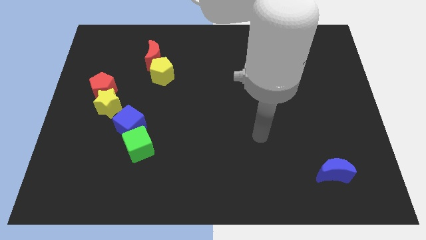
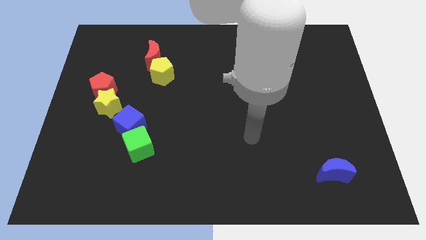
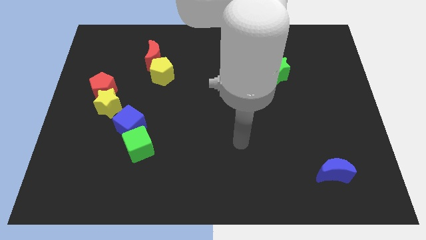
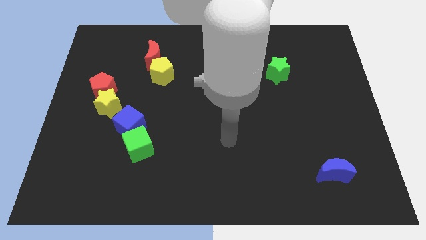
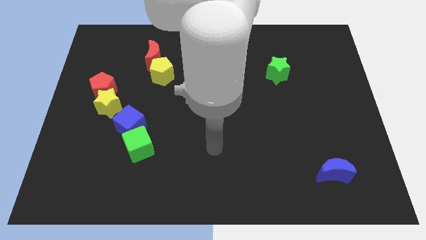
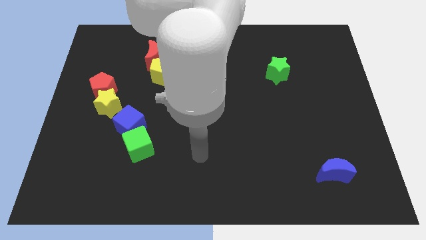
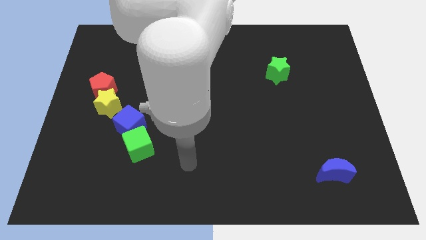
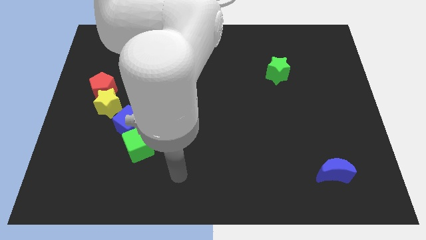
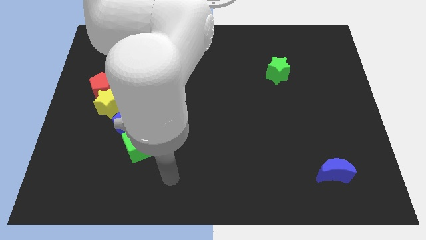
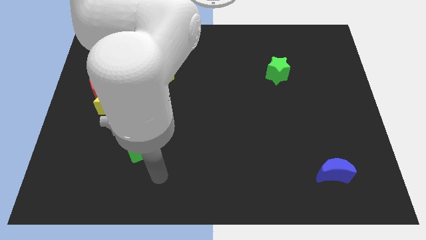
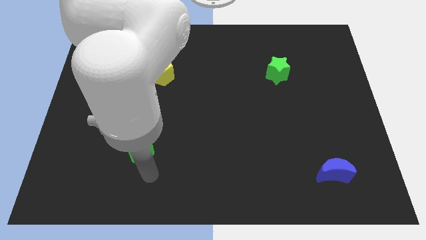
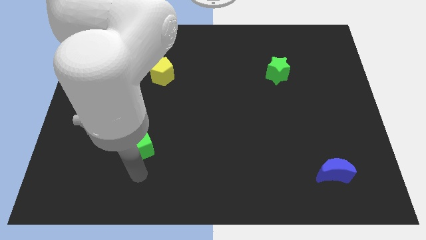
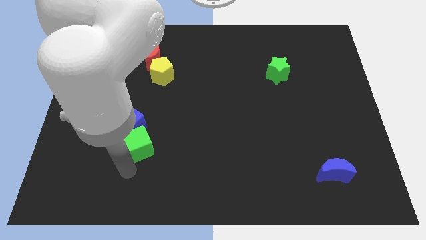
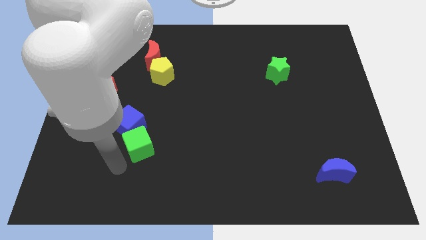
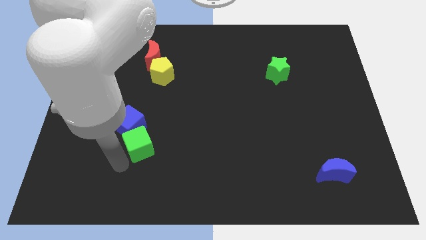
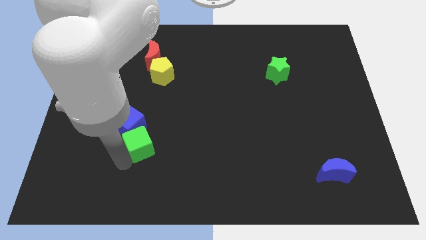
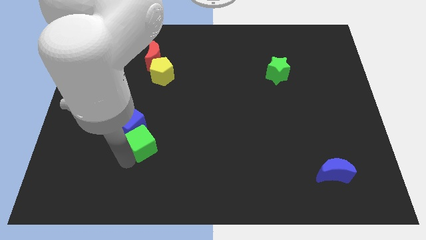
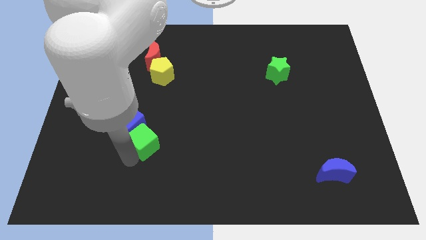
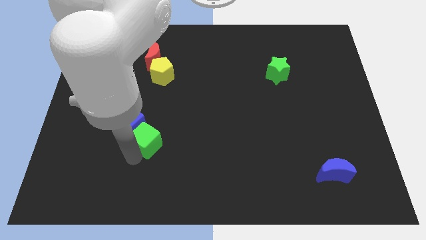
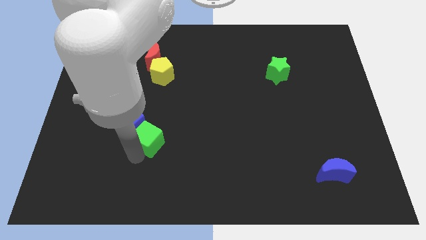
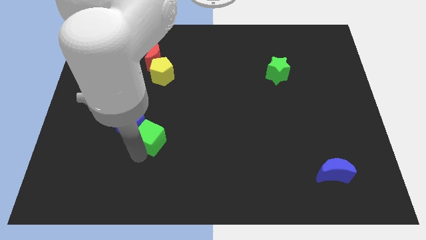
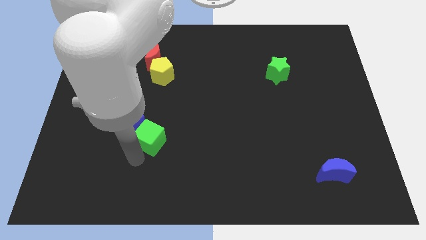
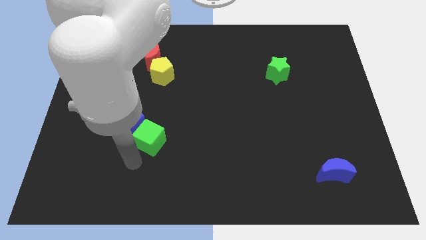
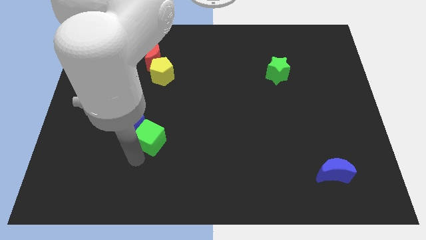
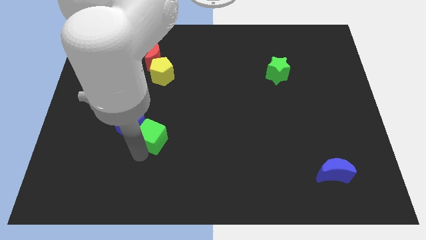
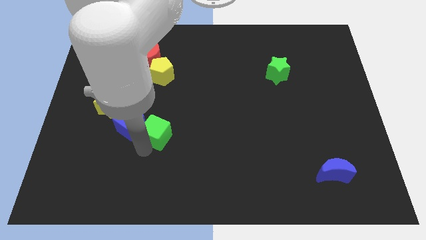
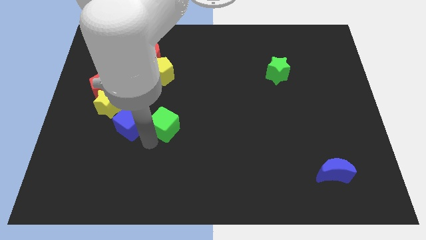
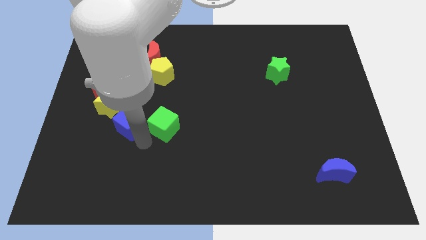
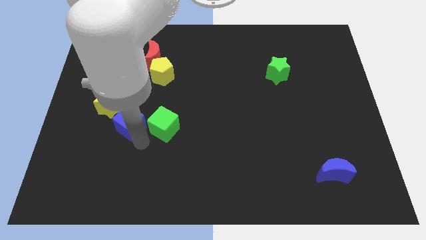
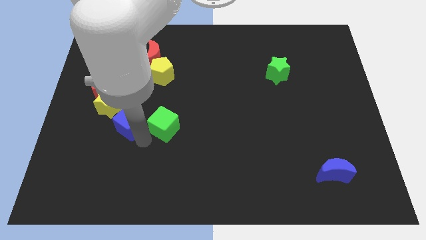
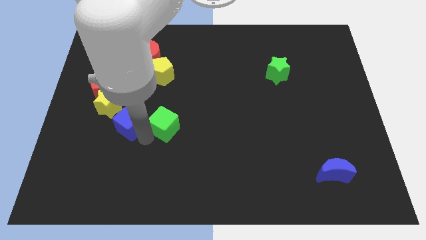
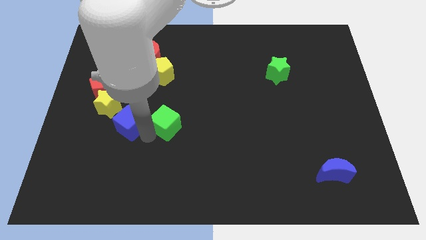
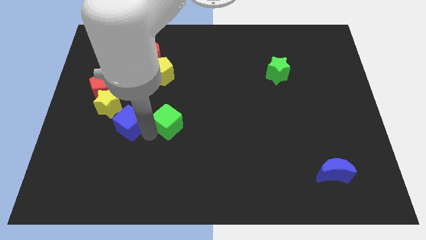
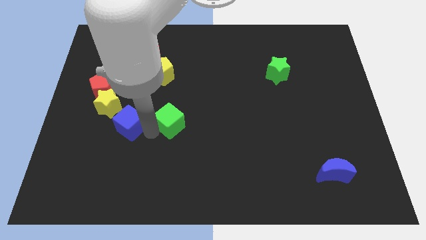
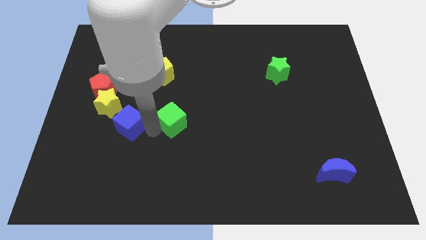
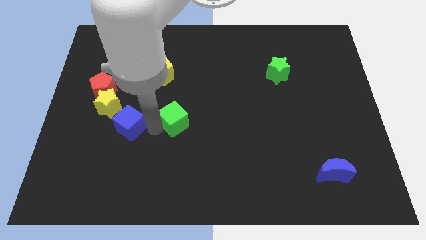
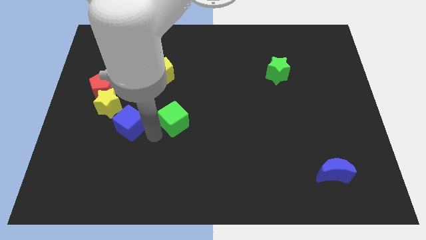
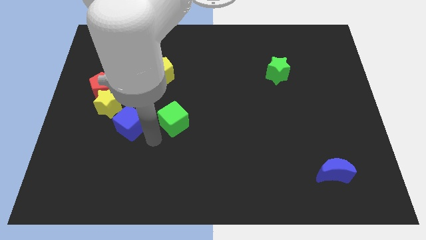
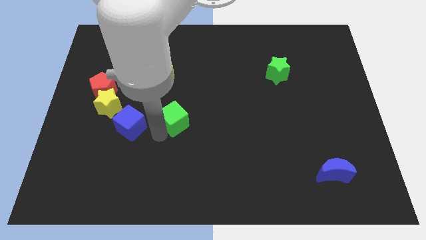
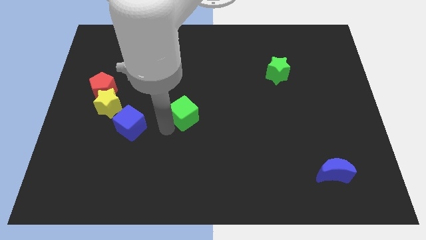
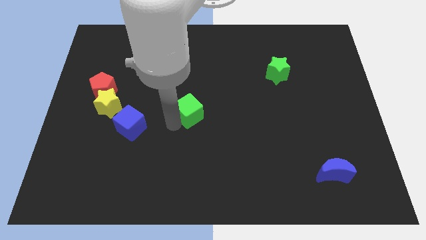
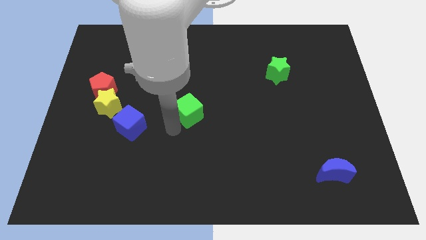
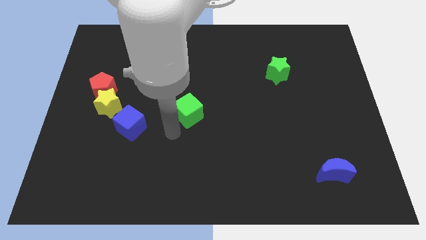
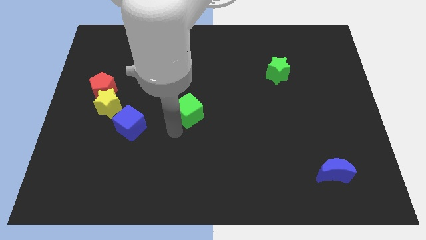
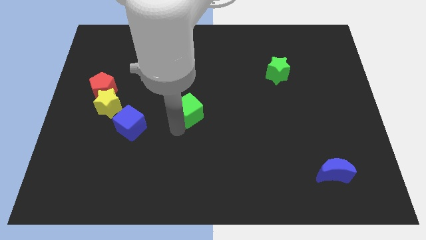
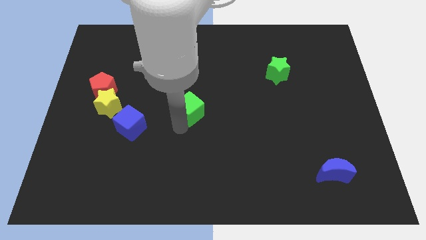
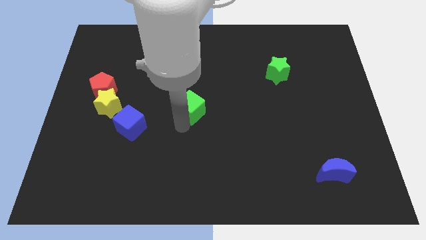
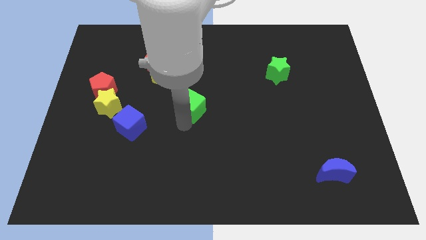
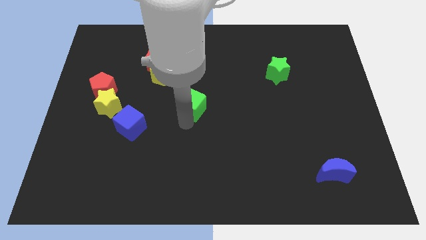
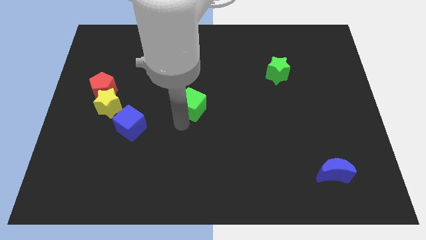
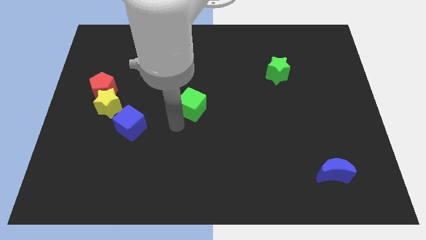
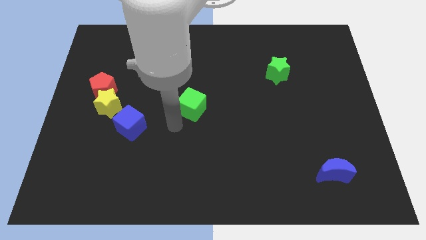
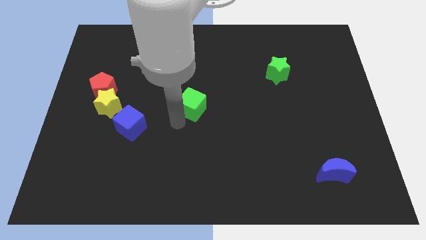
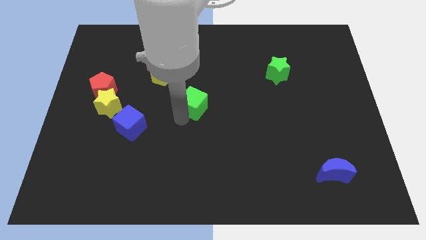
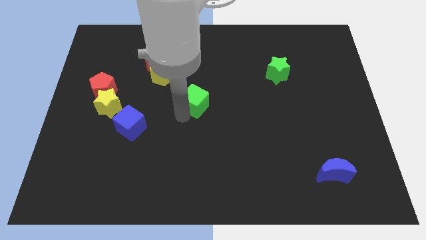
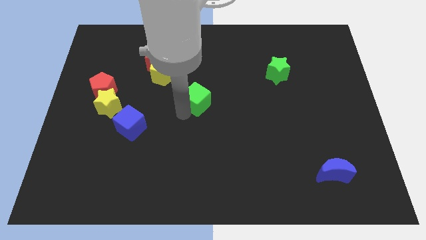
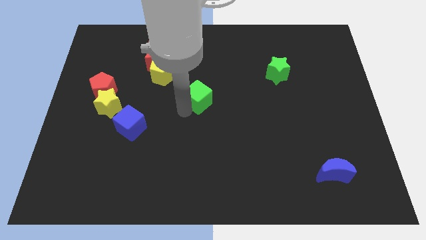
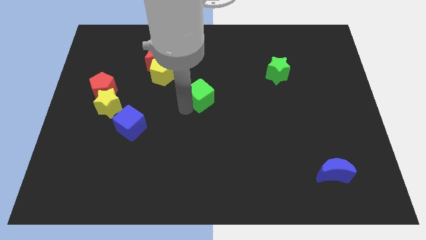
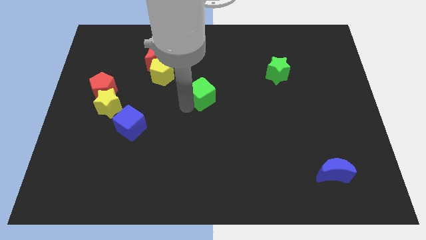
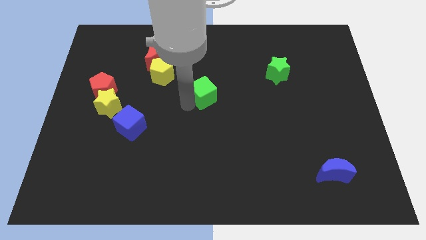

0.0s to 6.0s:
move the green cube diagonally upwards and right

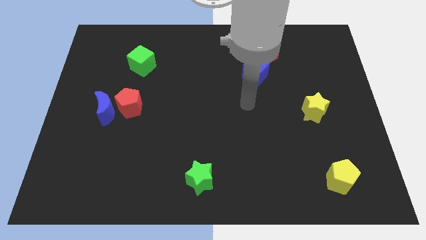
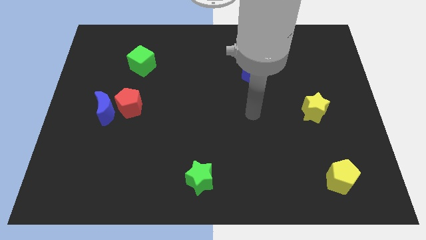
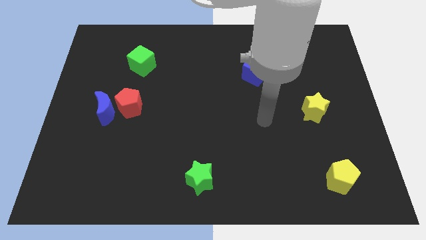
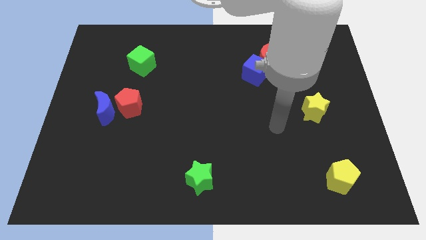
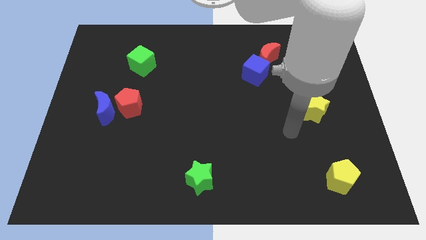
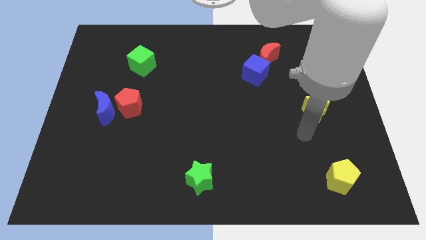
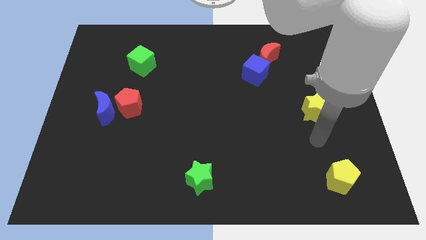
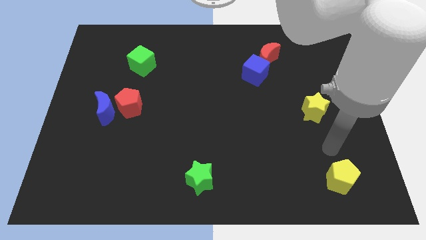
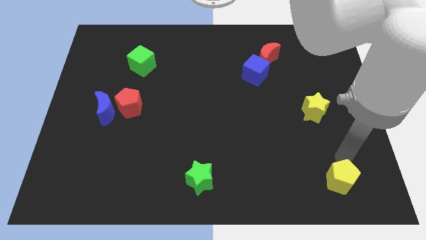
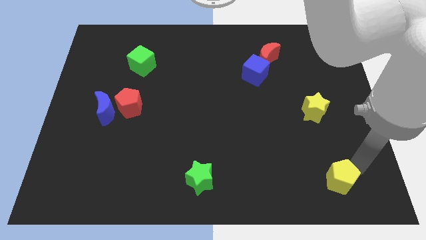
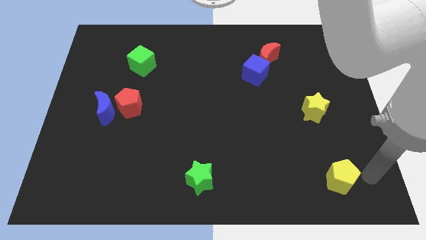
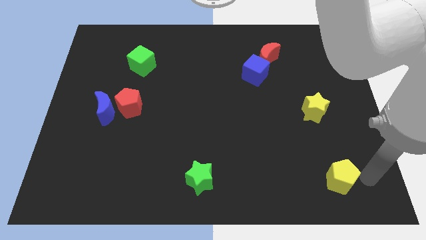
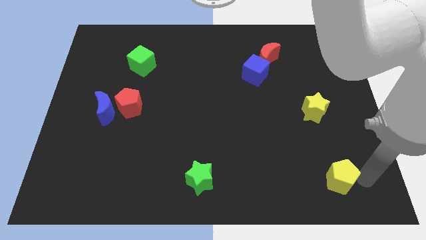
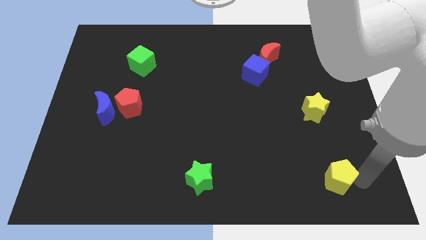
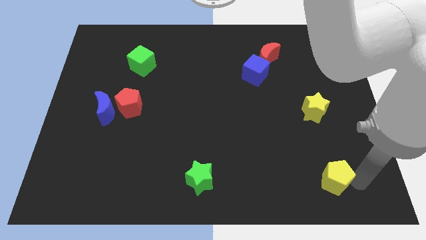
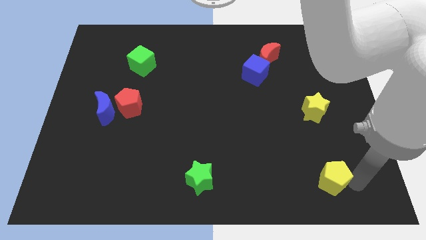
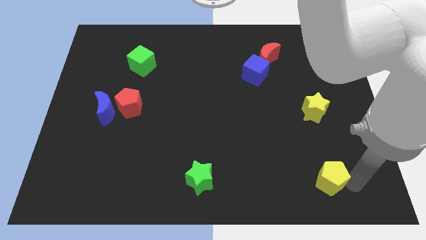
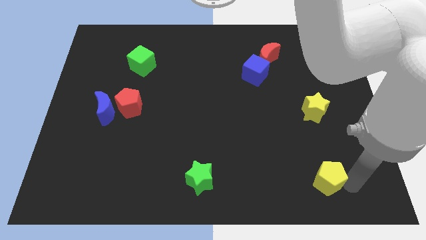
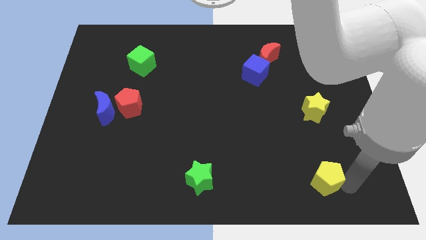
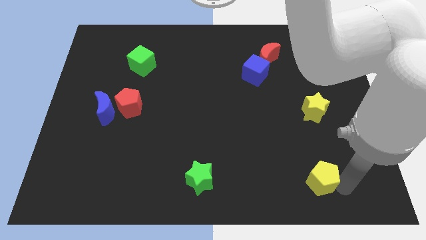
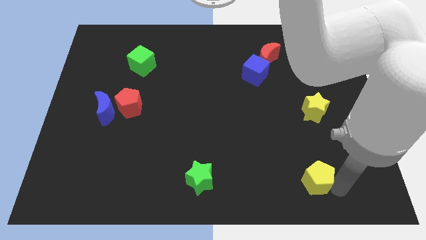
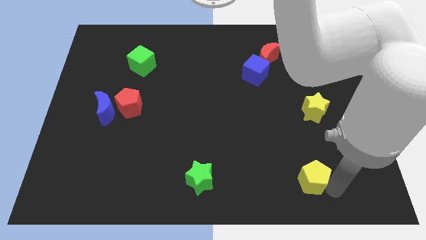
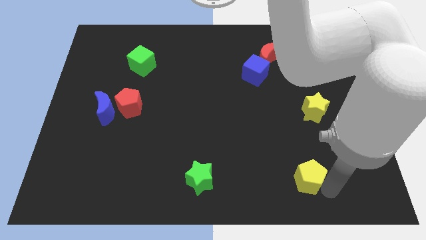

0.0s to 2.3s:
slide the yellow pentagon to the left slightly

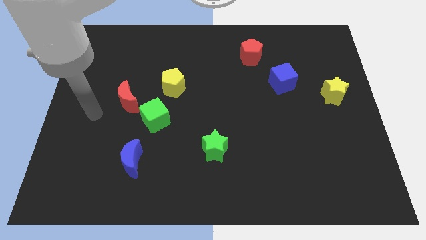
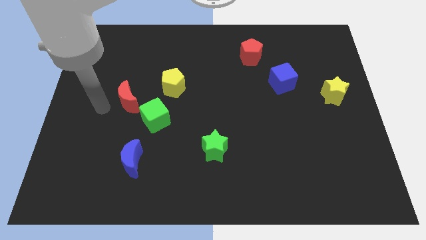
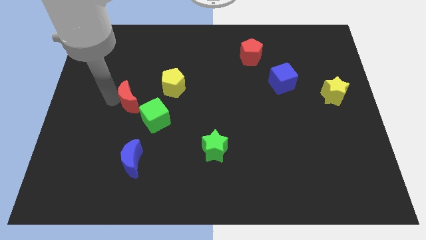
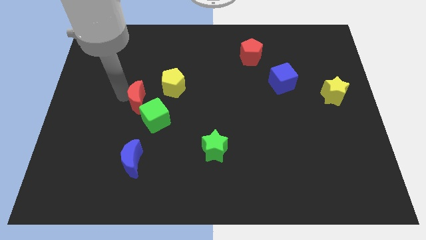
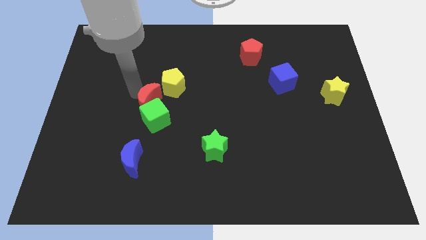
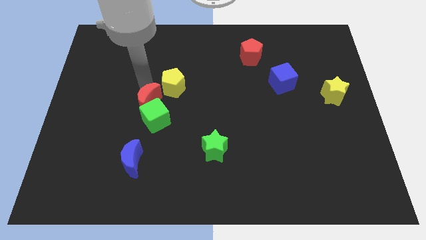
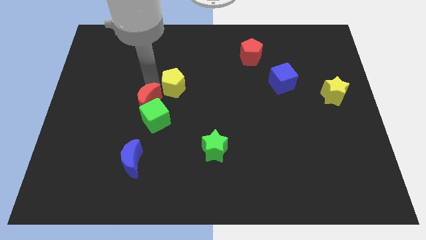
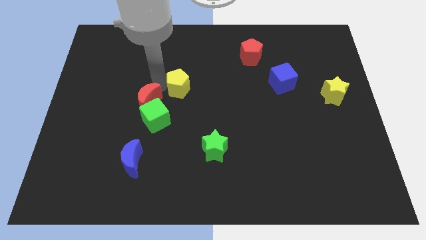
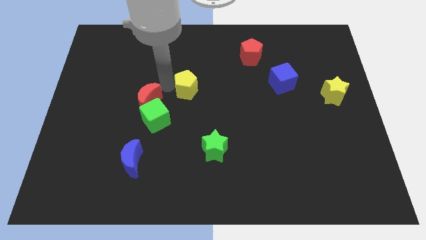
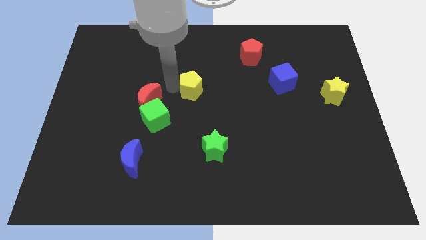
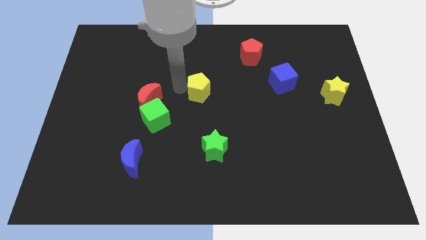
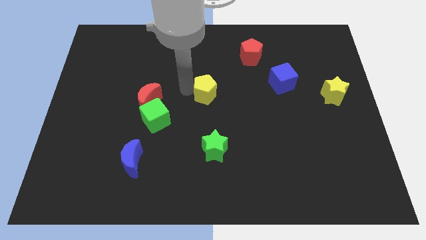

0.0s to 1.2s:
push the yellow pentagon a bit right
